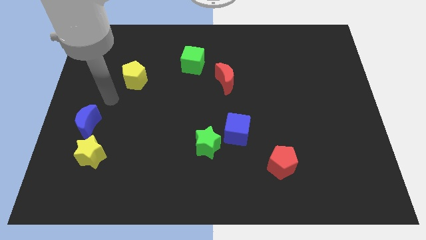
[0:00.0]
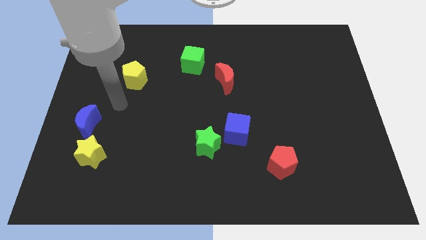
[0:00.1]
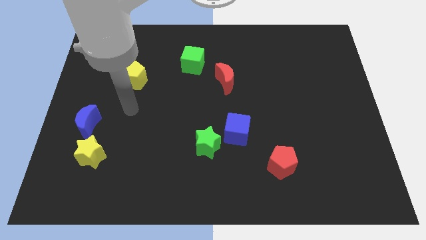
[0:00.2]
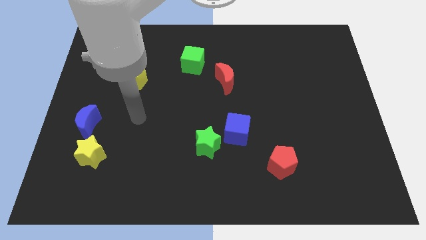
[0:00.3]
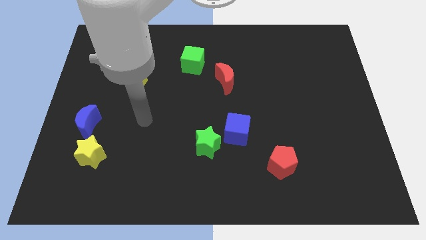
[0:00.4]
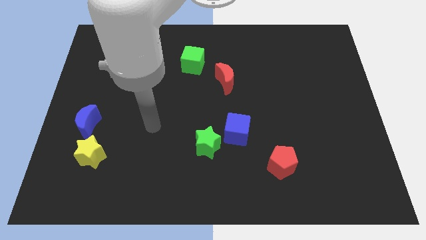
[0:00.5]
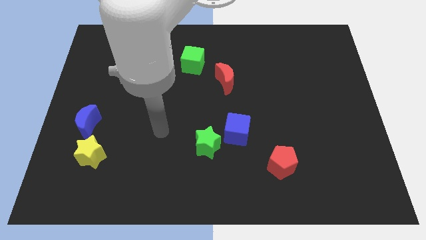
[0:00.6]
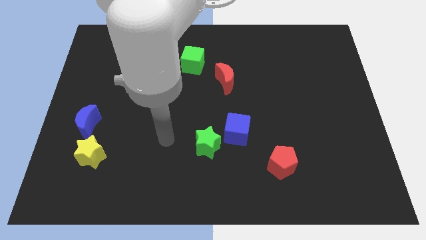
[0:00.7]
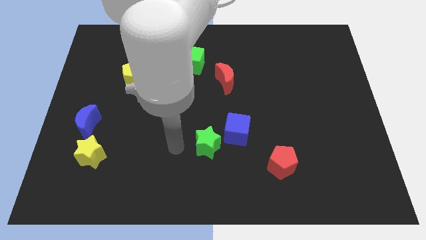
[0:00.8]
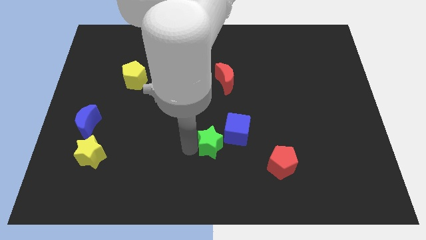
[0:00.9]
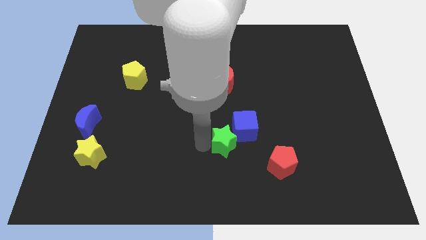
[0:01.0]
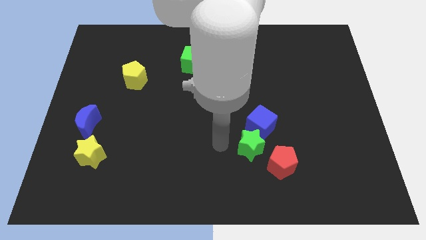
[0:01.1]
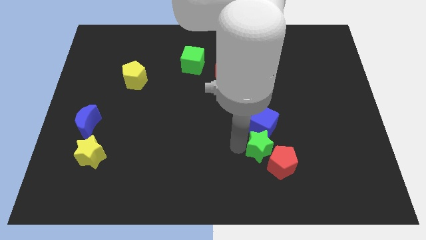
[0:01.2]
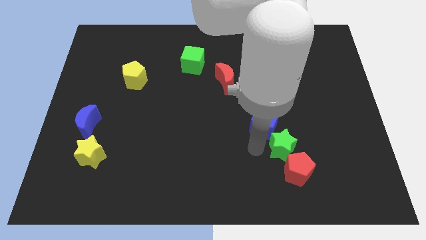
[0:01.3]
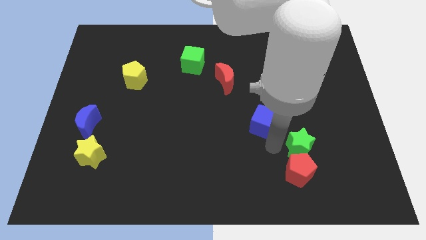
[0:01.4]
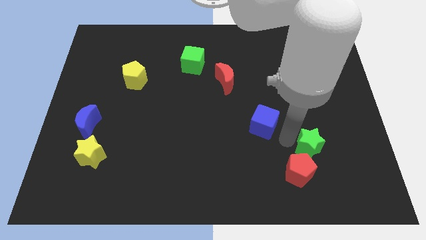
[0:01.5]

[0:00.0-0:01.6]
move the blue cube away from the green star

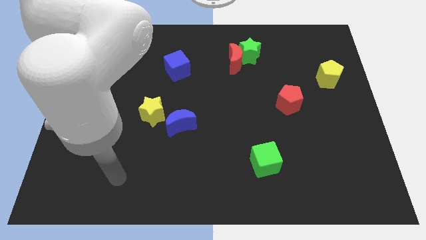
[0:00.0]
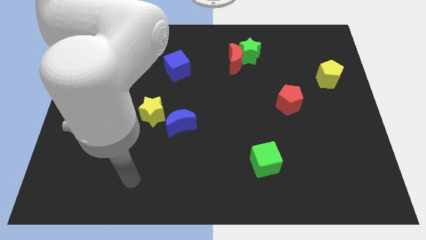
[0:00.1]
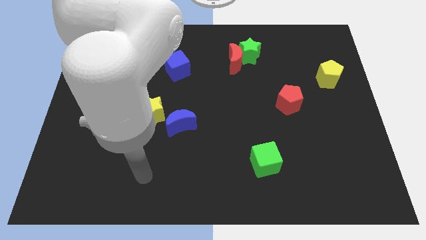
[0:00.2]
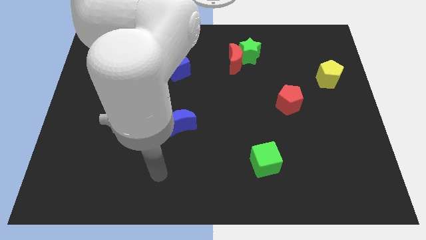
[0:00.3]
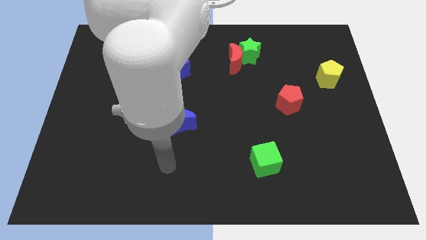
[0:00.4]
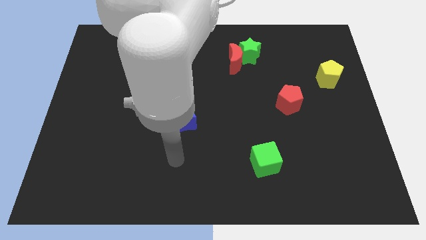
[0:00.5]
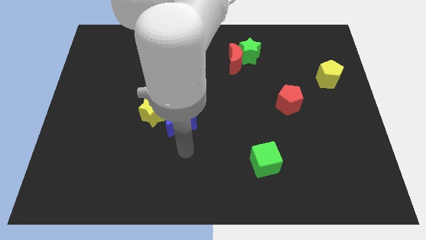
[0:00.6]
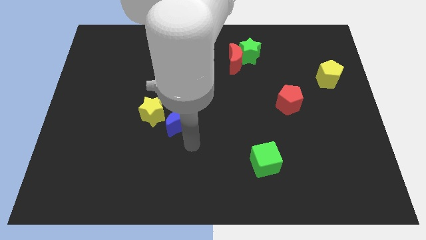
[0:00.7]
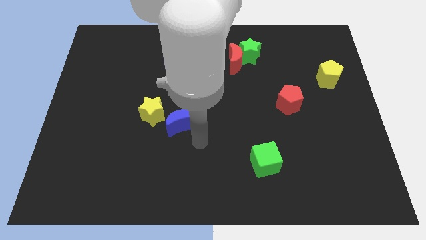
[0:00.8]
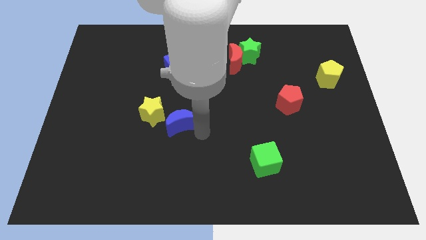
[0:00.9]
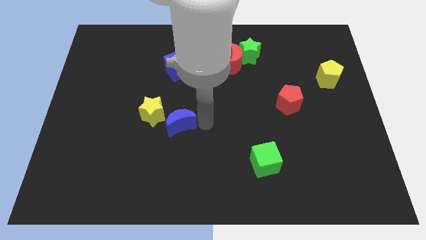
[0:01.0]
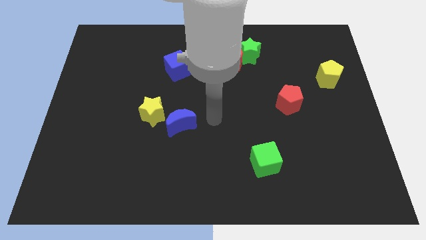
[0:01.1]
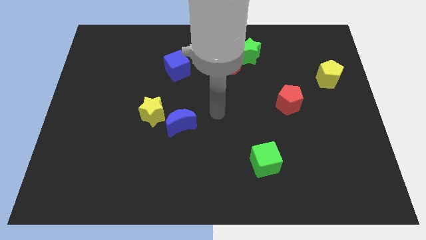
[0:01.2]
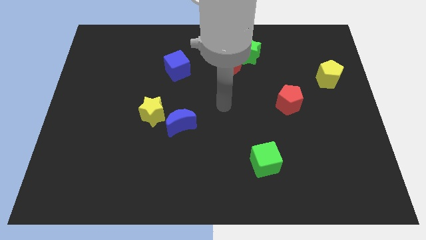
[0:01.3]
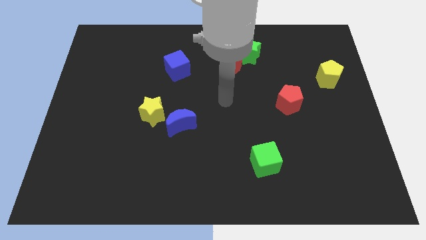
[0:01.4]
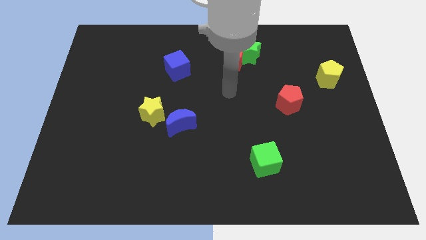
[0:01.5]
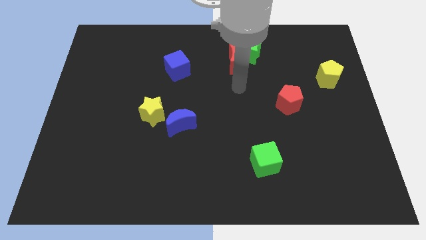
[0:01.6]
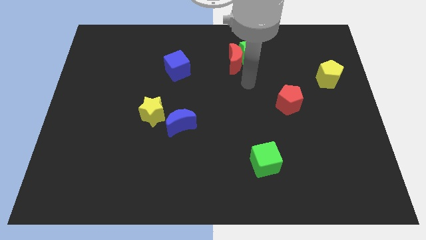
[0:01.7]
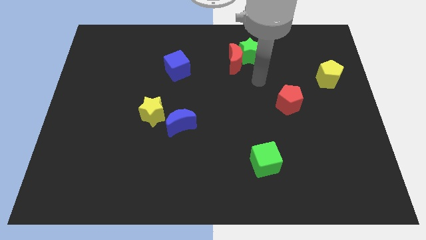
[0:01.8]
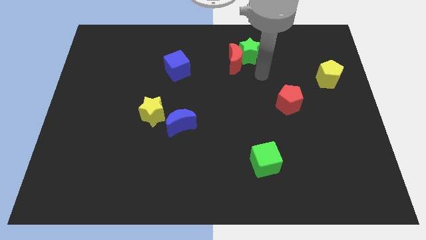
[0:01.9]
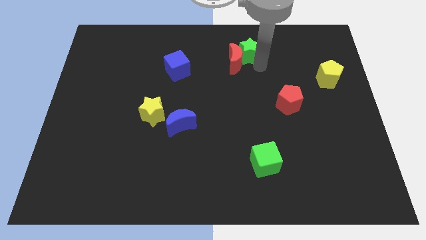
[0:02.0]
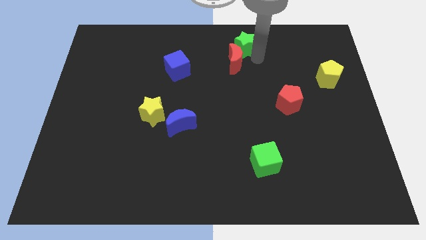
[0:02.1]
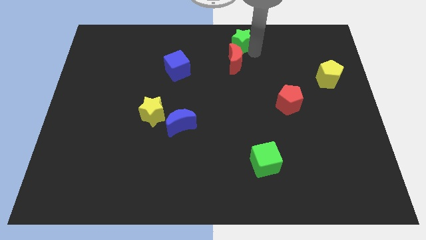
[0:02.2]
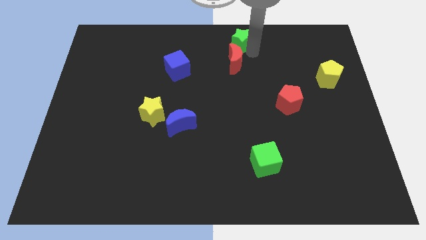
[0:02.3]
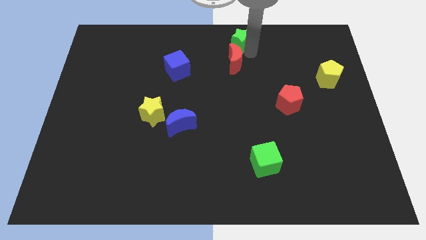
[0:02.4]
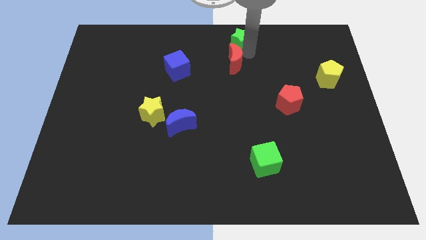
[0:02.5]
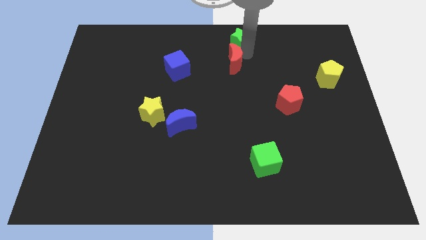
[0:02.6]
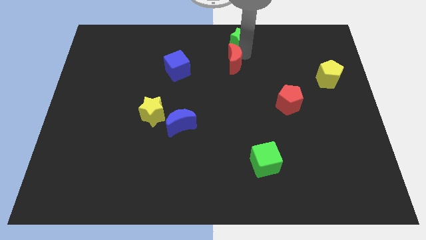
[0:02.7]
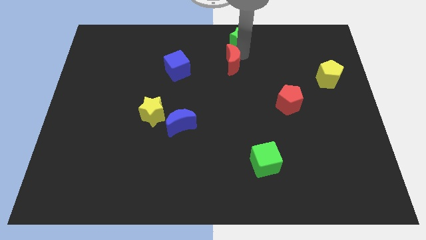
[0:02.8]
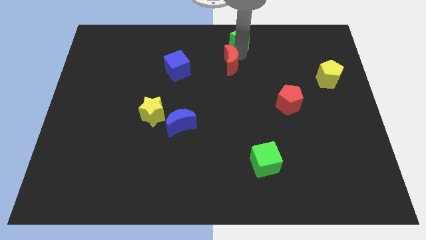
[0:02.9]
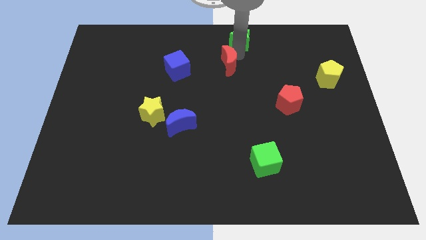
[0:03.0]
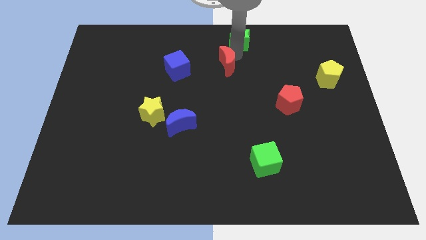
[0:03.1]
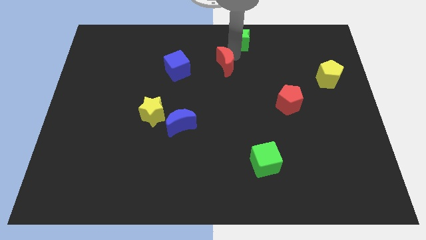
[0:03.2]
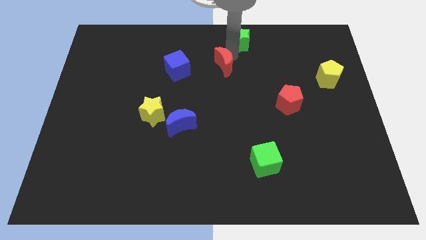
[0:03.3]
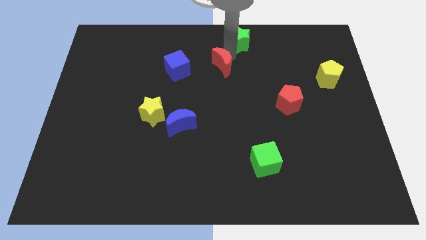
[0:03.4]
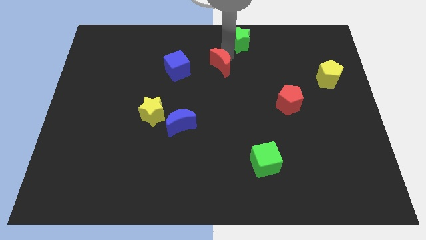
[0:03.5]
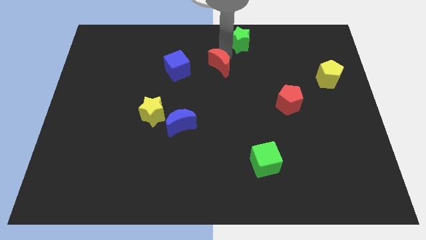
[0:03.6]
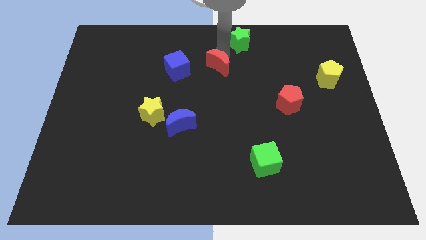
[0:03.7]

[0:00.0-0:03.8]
separate the red moon from the green star

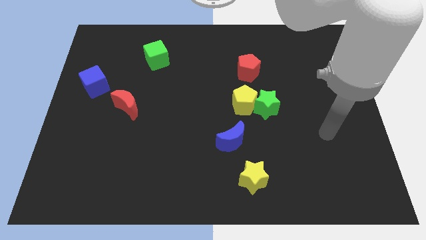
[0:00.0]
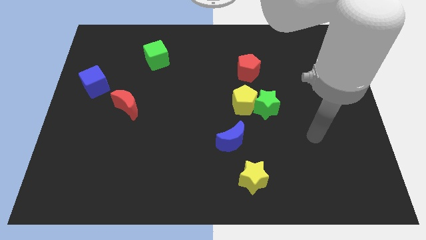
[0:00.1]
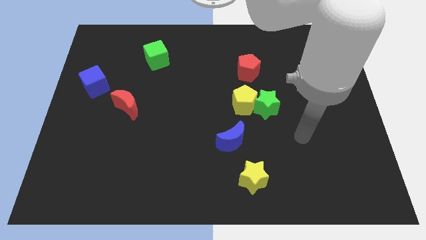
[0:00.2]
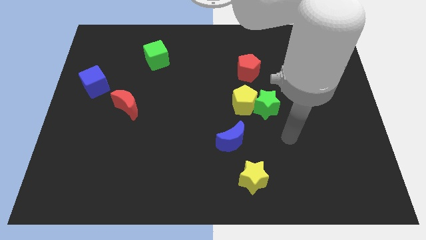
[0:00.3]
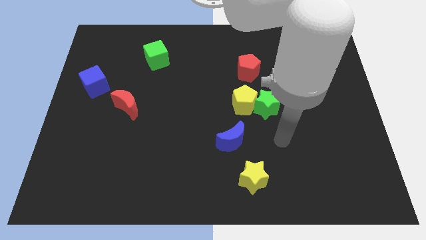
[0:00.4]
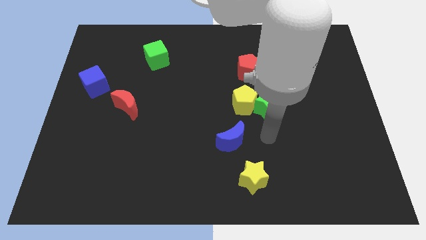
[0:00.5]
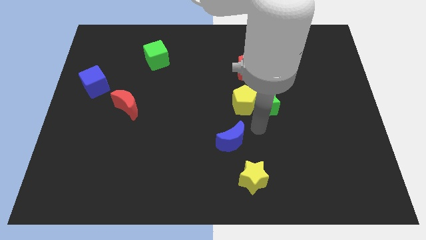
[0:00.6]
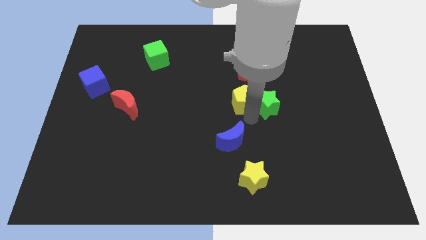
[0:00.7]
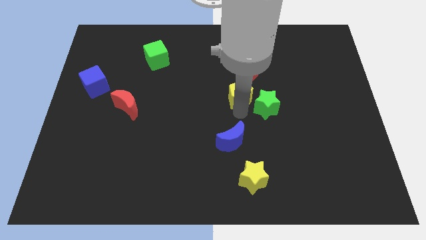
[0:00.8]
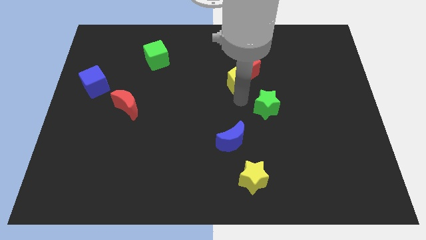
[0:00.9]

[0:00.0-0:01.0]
separate the green star from the yellow pentagon

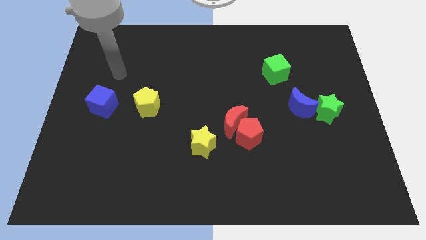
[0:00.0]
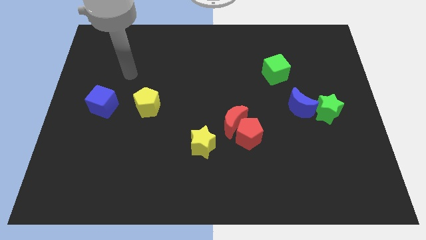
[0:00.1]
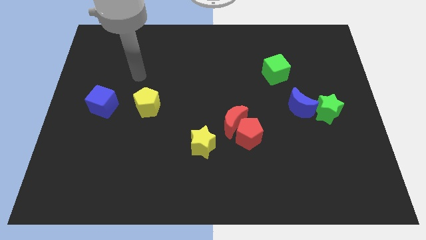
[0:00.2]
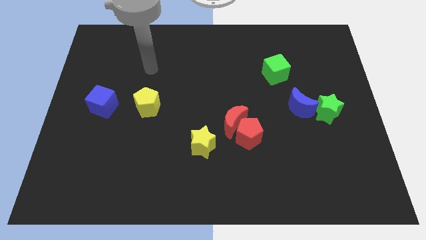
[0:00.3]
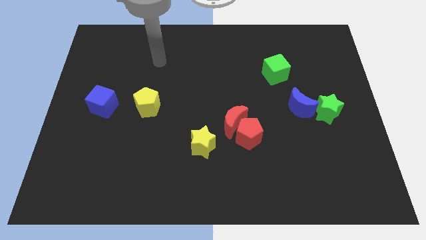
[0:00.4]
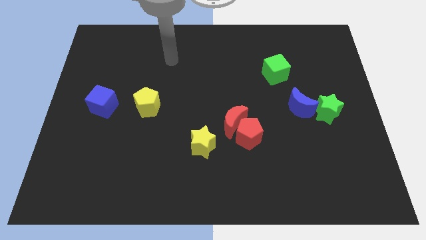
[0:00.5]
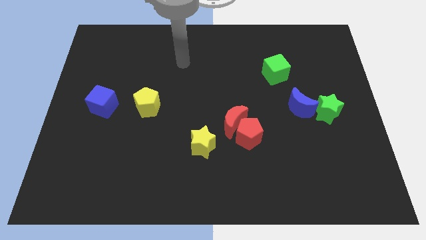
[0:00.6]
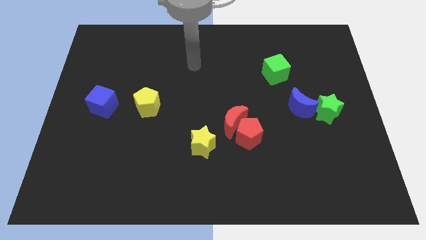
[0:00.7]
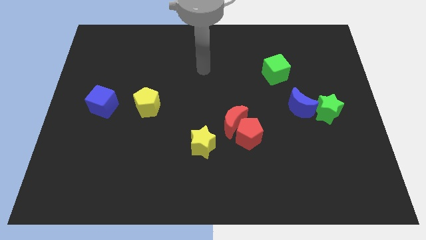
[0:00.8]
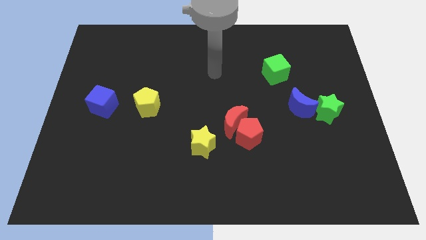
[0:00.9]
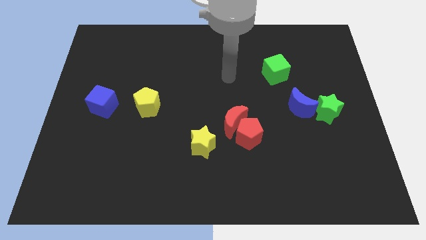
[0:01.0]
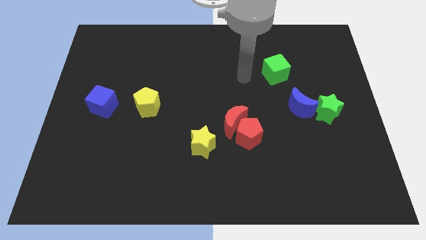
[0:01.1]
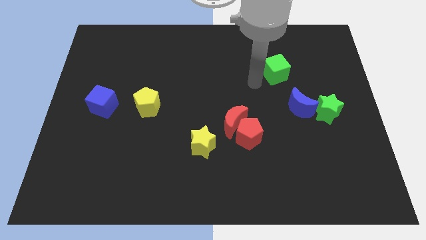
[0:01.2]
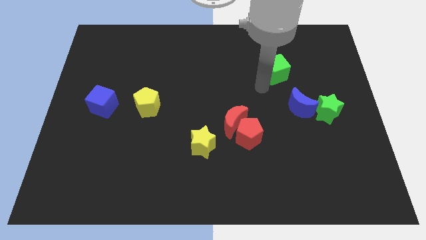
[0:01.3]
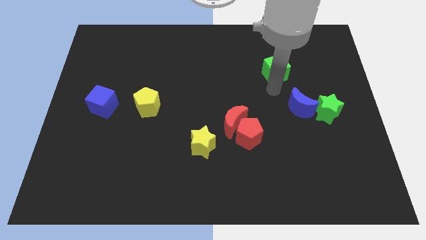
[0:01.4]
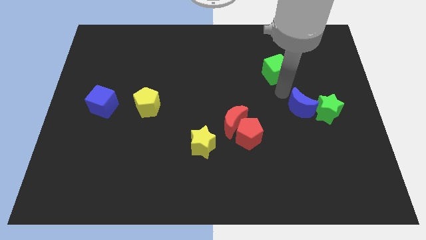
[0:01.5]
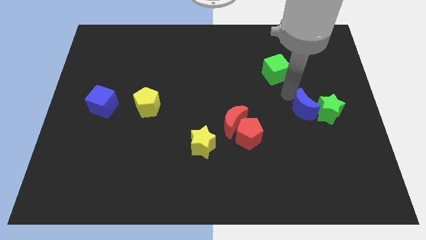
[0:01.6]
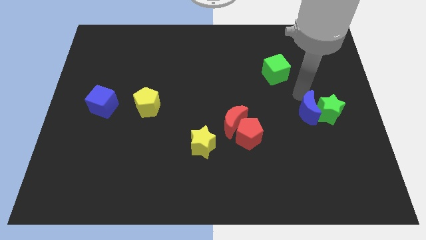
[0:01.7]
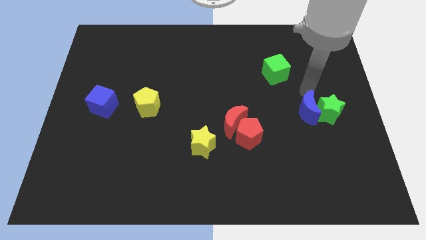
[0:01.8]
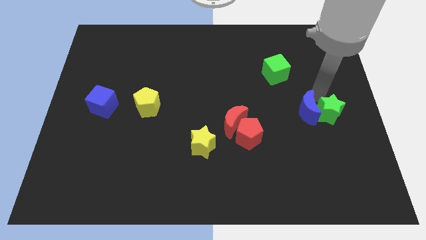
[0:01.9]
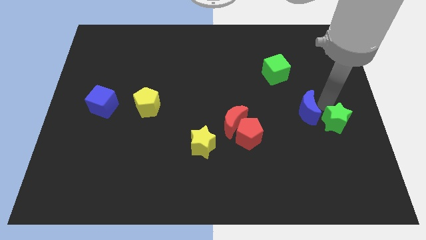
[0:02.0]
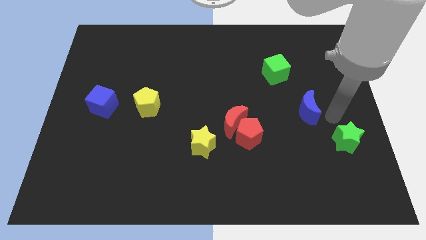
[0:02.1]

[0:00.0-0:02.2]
pull the blue moon apart from the green star

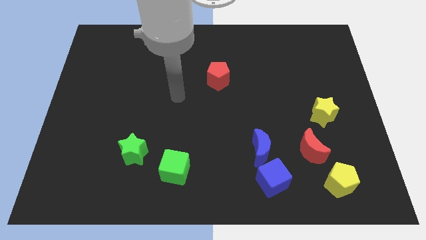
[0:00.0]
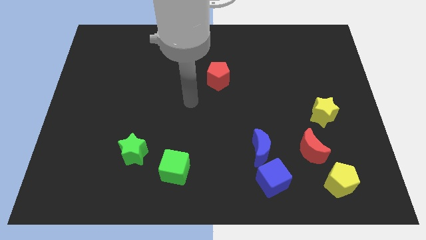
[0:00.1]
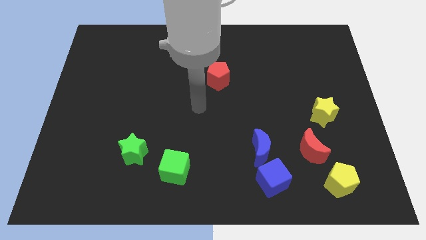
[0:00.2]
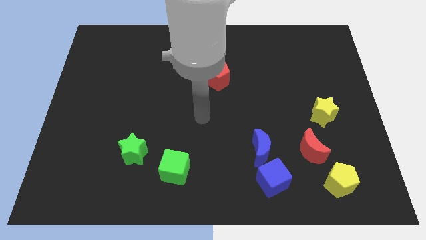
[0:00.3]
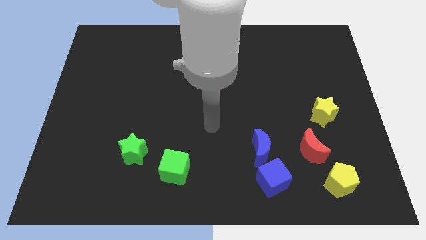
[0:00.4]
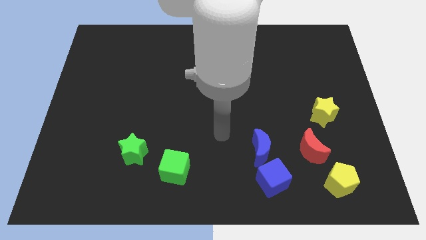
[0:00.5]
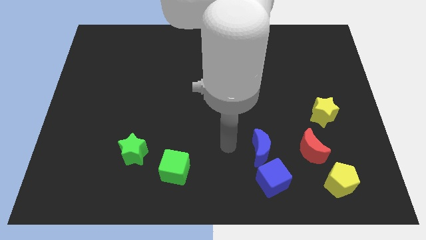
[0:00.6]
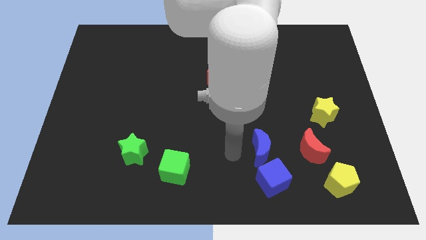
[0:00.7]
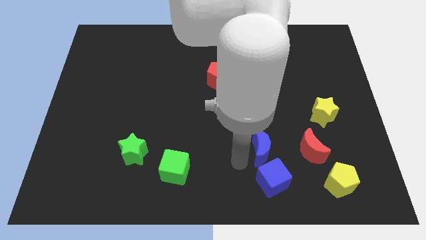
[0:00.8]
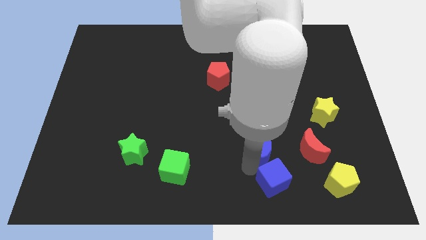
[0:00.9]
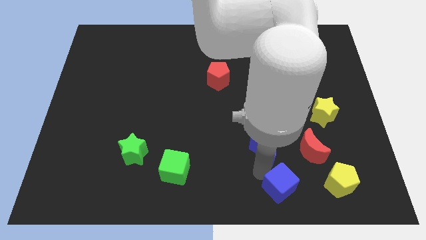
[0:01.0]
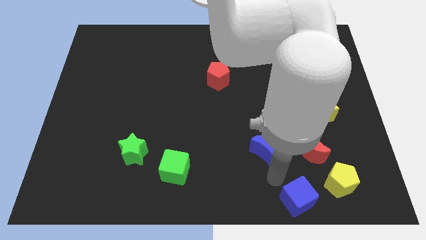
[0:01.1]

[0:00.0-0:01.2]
separate the blue moon from the blue cube
